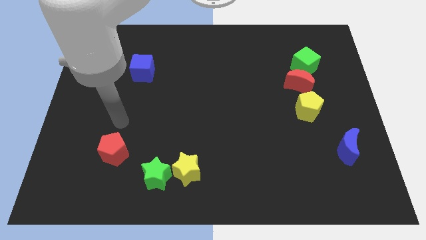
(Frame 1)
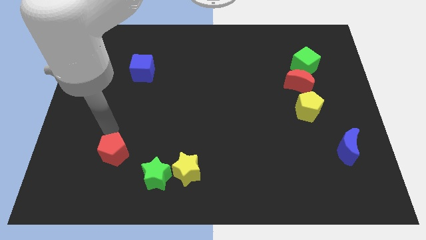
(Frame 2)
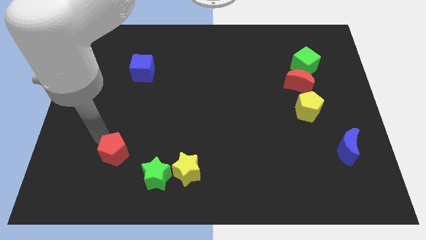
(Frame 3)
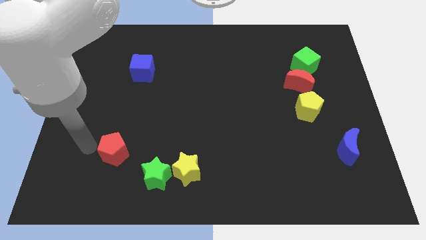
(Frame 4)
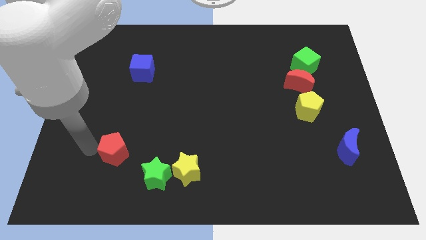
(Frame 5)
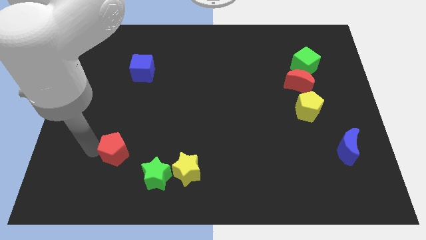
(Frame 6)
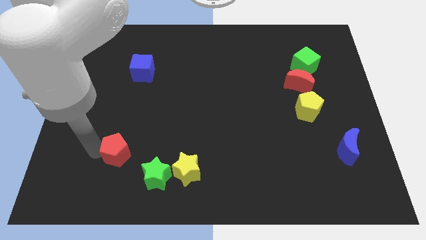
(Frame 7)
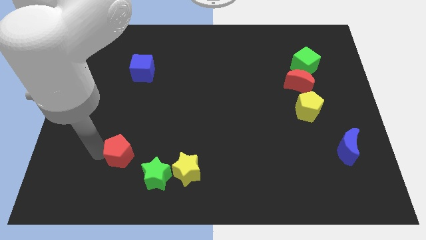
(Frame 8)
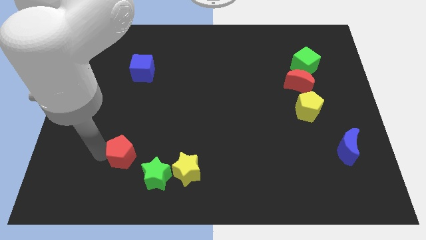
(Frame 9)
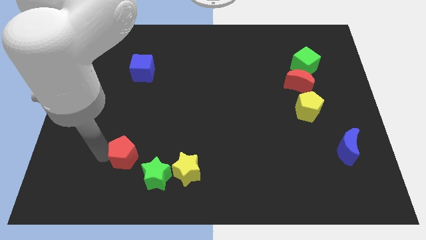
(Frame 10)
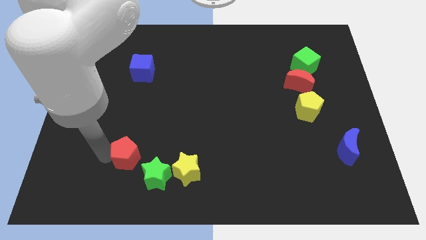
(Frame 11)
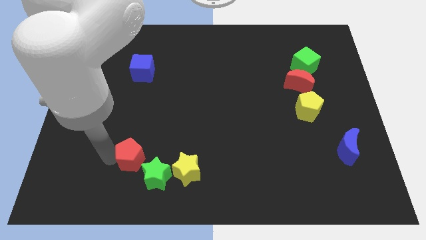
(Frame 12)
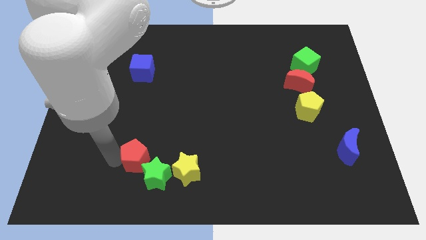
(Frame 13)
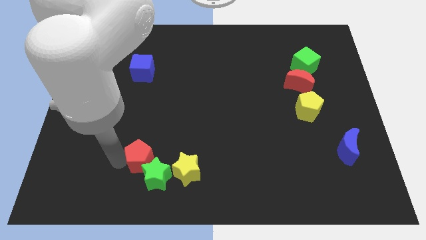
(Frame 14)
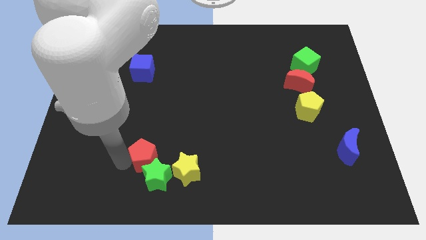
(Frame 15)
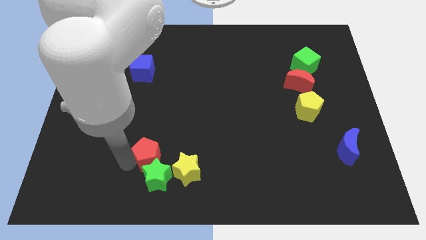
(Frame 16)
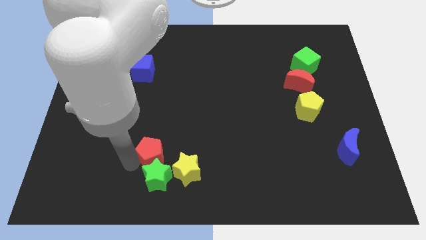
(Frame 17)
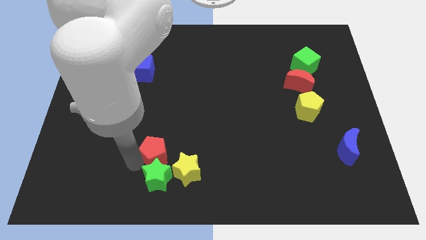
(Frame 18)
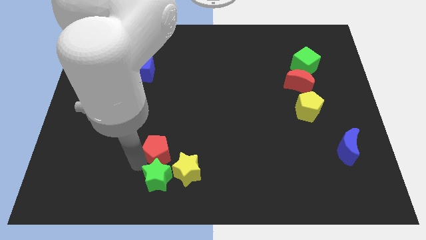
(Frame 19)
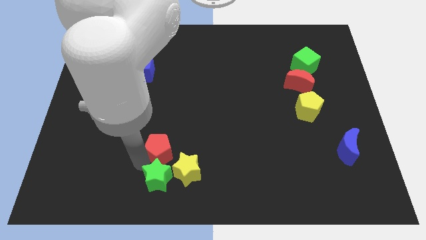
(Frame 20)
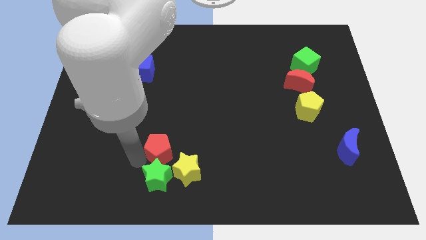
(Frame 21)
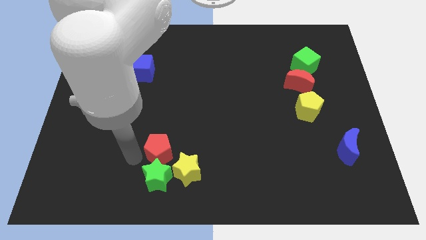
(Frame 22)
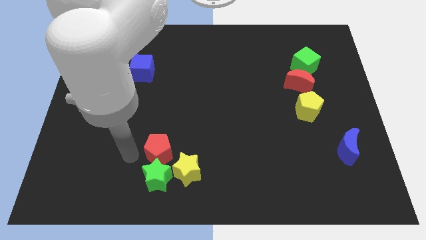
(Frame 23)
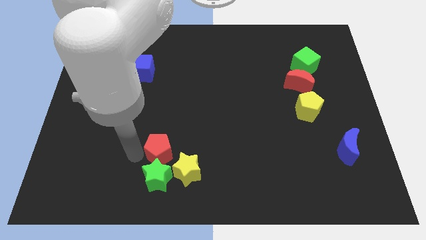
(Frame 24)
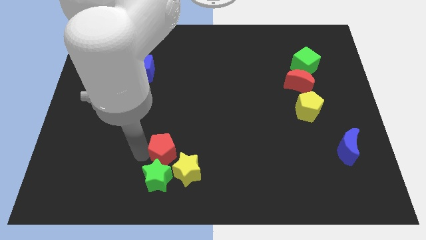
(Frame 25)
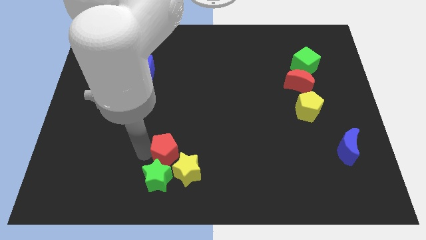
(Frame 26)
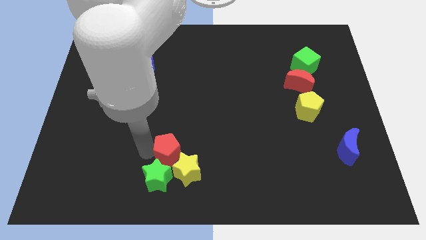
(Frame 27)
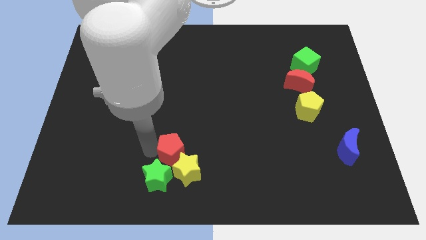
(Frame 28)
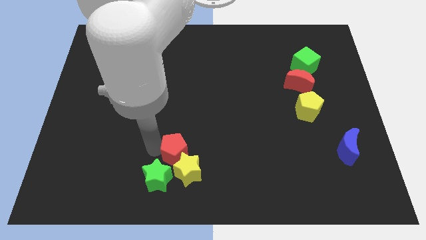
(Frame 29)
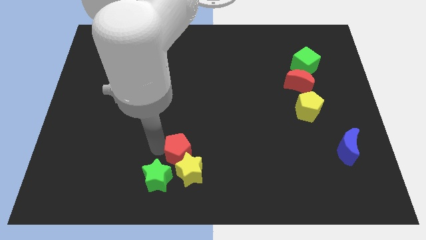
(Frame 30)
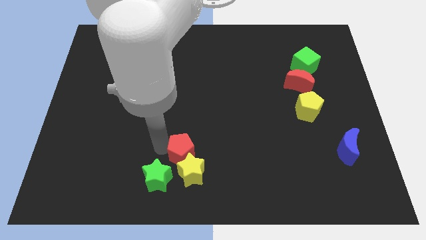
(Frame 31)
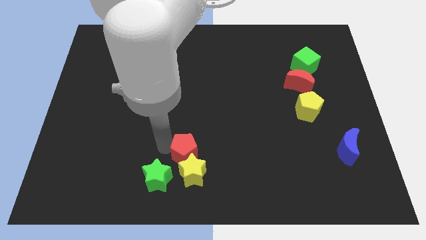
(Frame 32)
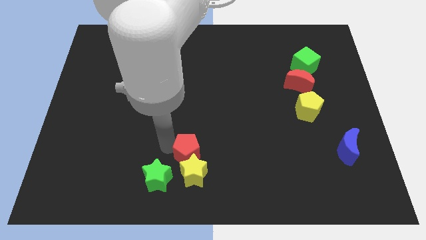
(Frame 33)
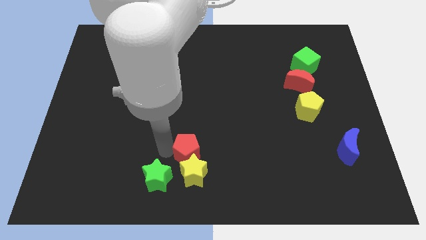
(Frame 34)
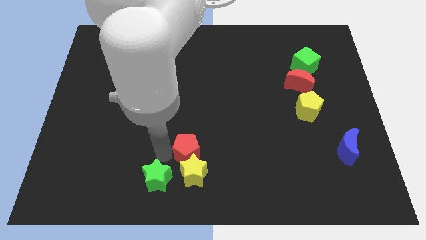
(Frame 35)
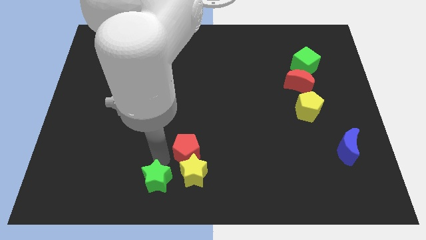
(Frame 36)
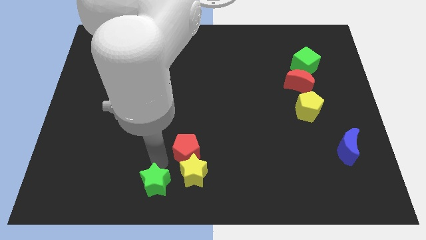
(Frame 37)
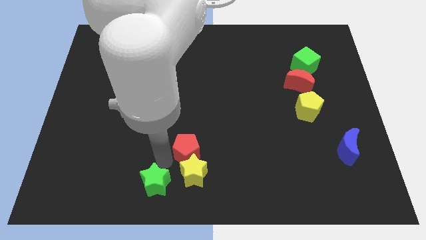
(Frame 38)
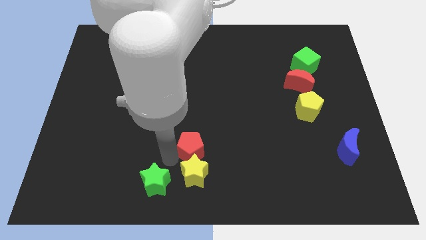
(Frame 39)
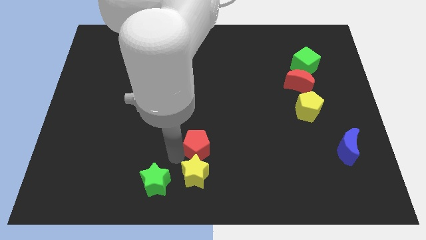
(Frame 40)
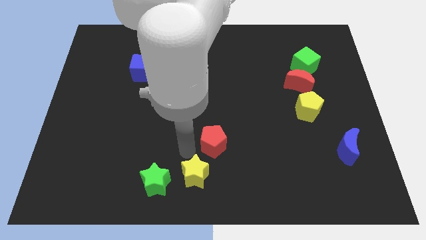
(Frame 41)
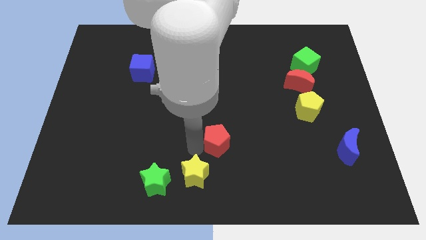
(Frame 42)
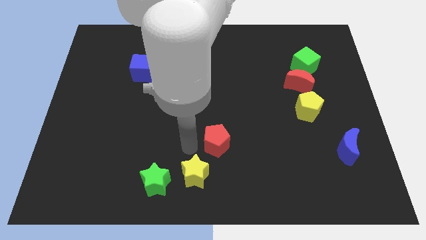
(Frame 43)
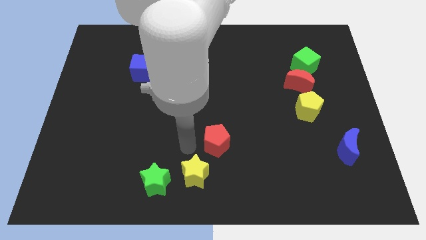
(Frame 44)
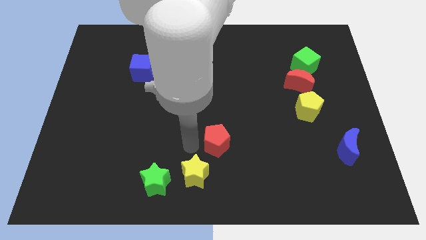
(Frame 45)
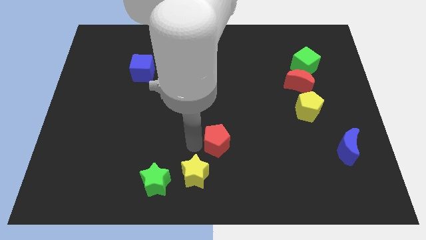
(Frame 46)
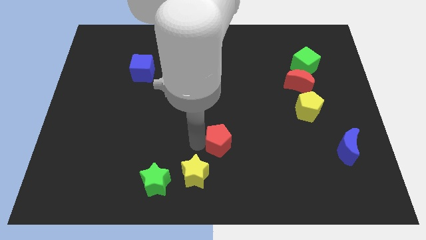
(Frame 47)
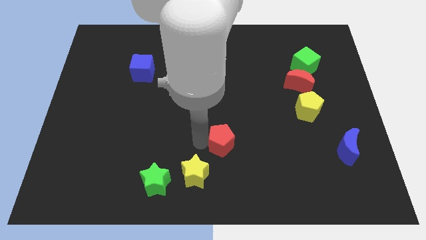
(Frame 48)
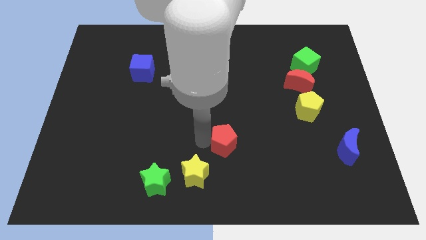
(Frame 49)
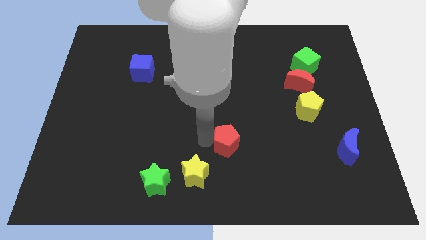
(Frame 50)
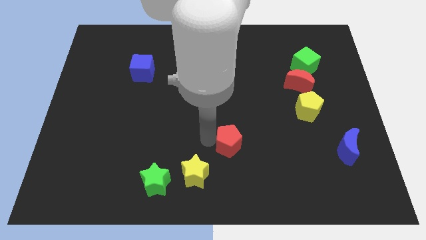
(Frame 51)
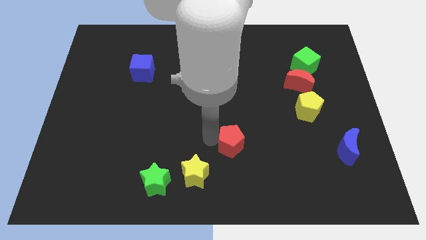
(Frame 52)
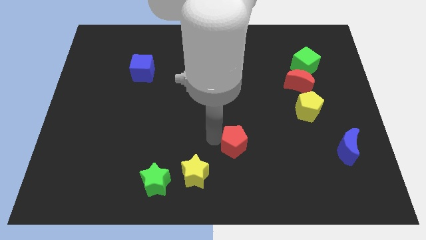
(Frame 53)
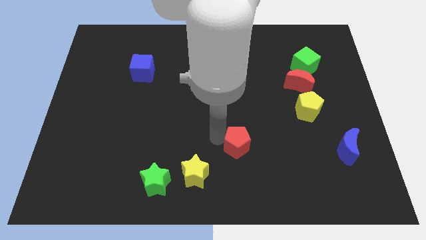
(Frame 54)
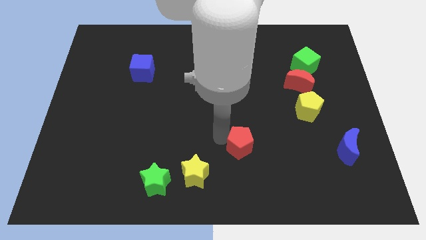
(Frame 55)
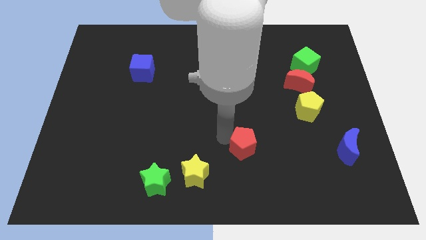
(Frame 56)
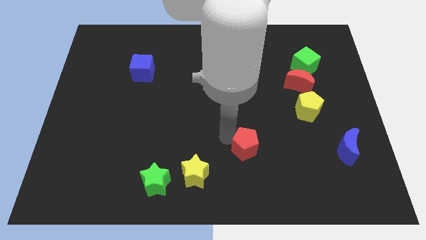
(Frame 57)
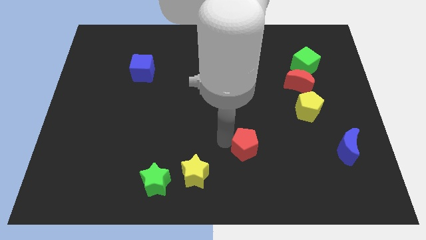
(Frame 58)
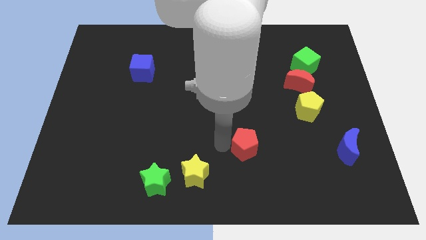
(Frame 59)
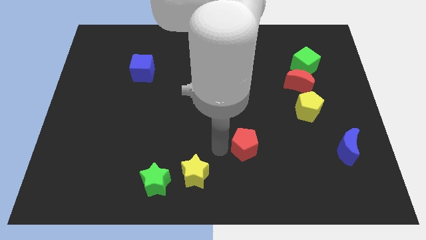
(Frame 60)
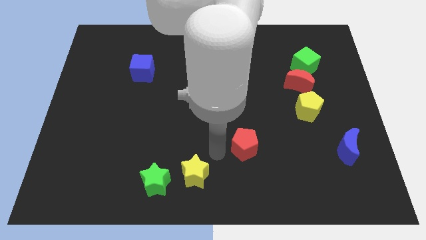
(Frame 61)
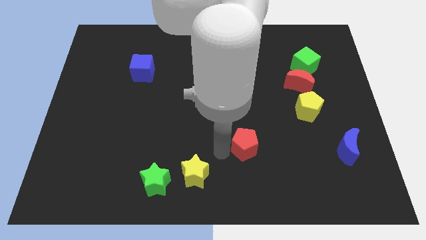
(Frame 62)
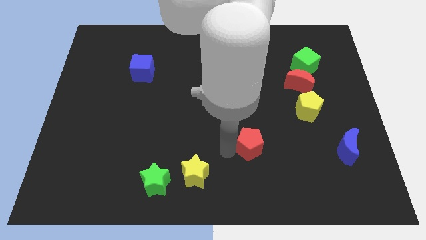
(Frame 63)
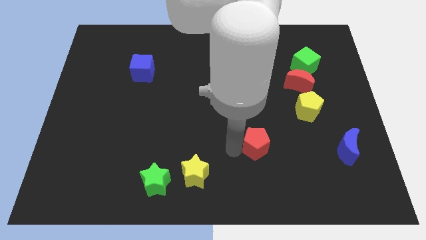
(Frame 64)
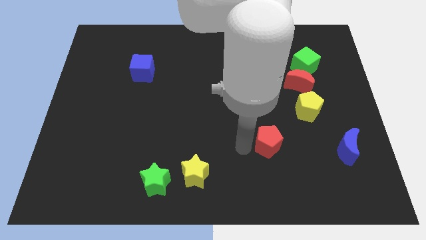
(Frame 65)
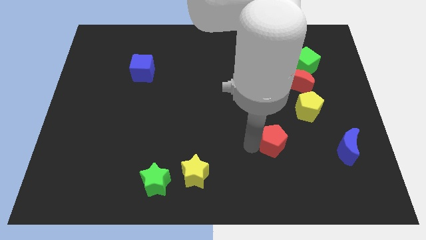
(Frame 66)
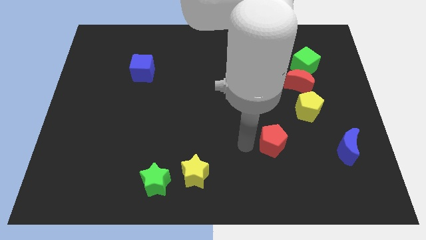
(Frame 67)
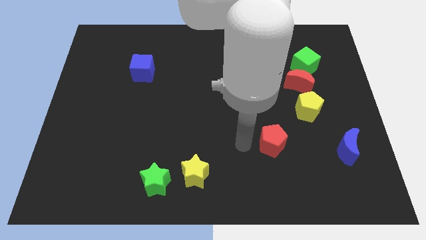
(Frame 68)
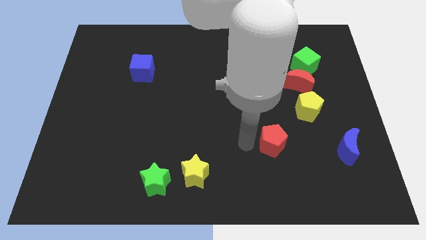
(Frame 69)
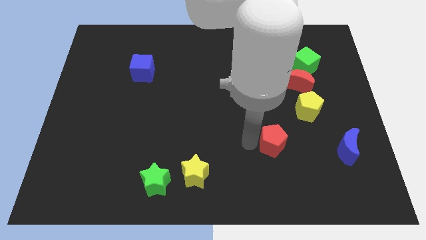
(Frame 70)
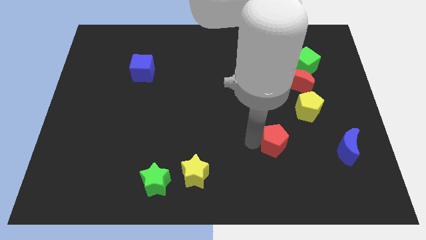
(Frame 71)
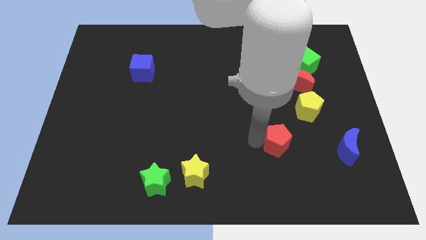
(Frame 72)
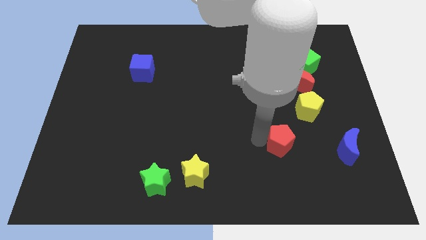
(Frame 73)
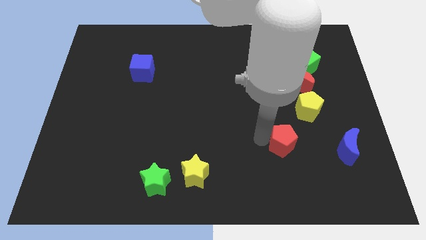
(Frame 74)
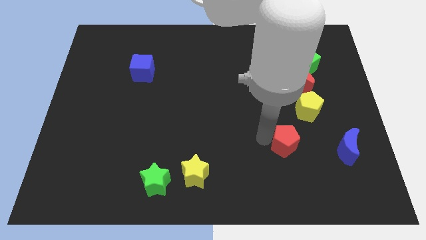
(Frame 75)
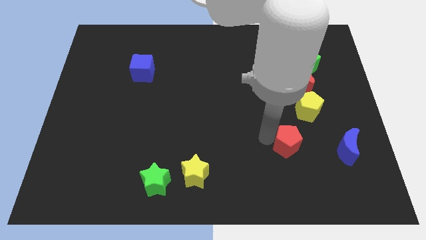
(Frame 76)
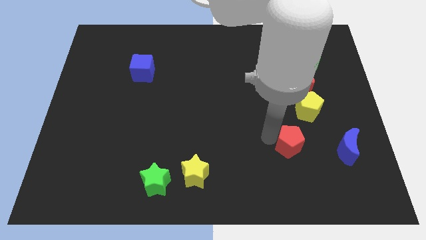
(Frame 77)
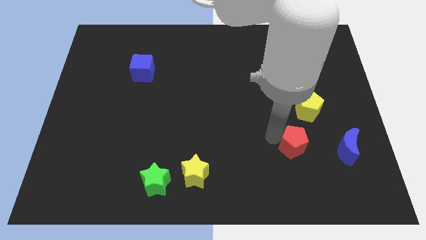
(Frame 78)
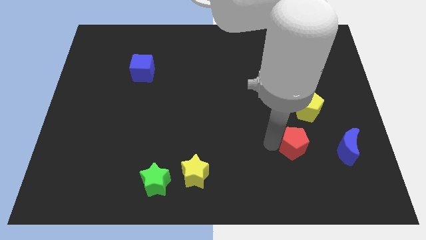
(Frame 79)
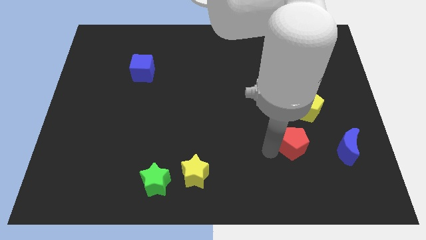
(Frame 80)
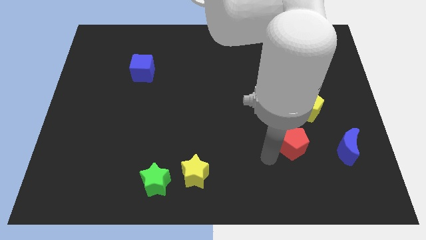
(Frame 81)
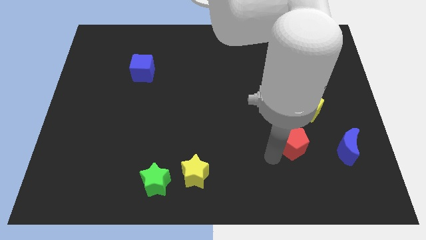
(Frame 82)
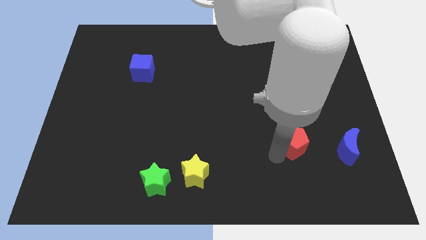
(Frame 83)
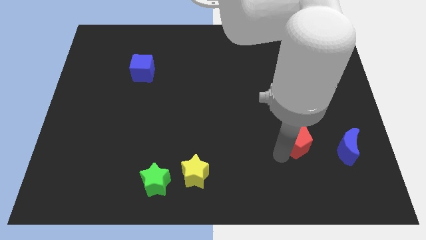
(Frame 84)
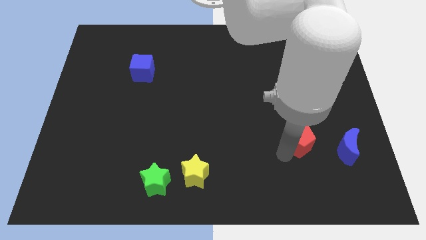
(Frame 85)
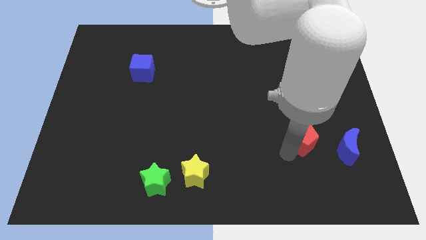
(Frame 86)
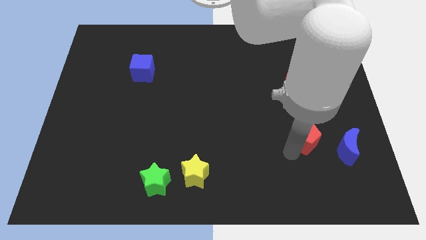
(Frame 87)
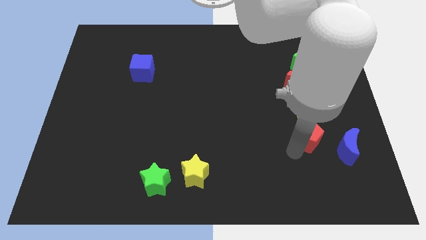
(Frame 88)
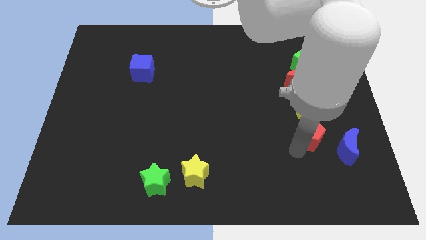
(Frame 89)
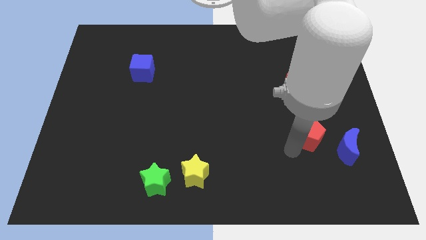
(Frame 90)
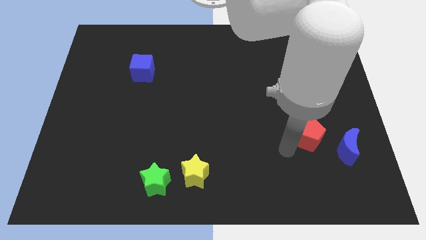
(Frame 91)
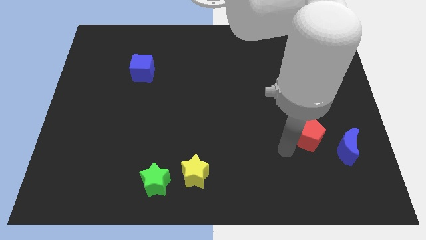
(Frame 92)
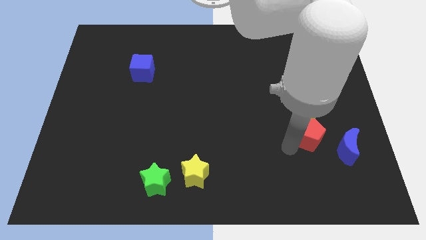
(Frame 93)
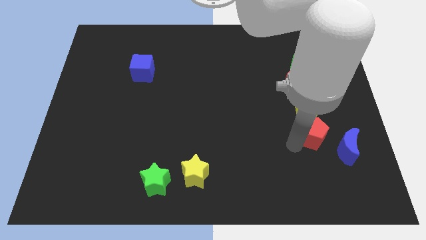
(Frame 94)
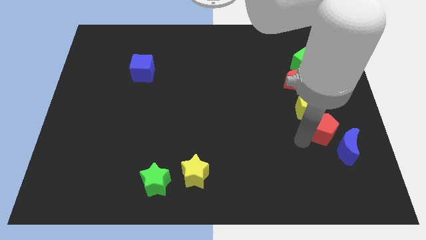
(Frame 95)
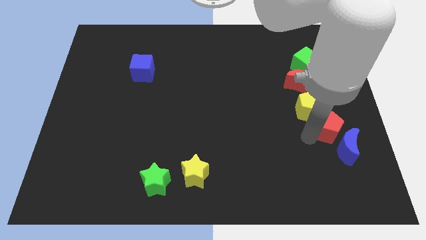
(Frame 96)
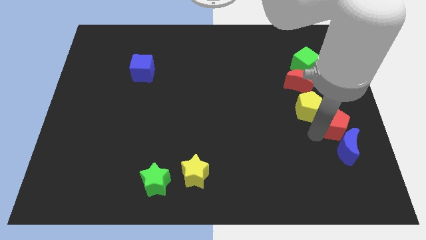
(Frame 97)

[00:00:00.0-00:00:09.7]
put the red pentagon to the right side of the board
